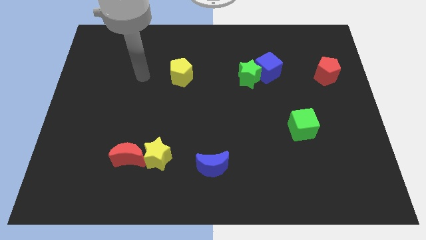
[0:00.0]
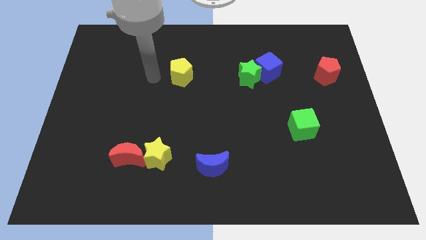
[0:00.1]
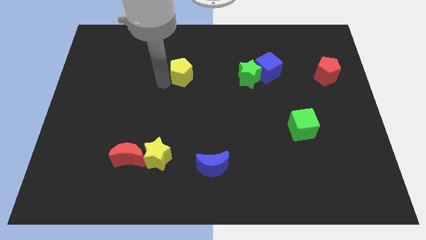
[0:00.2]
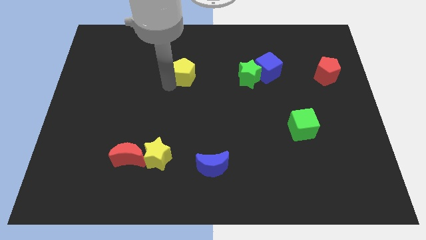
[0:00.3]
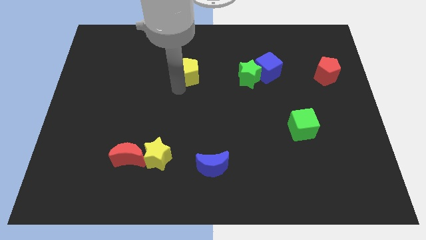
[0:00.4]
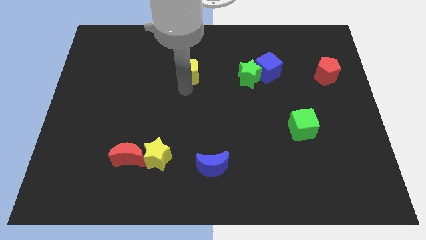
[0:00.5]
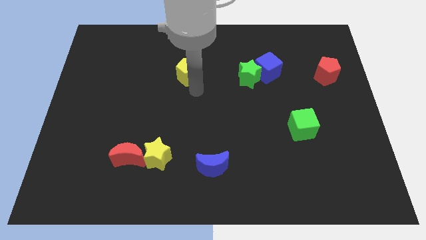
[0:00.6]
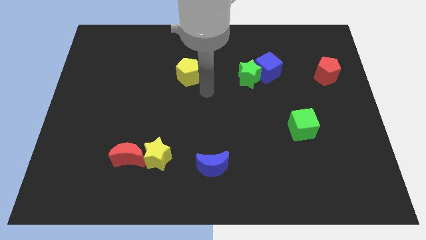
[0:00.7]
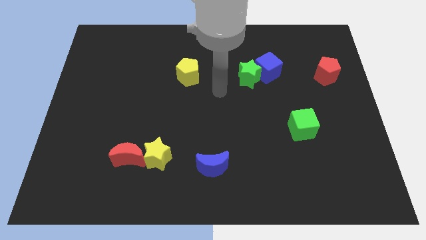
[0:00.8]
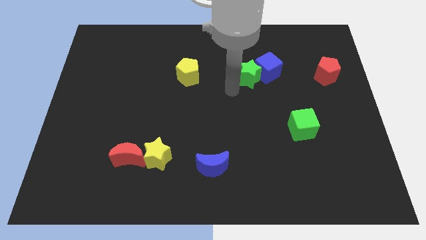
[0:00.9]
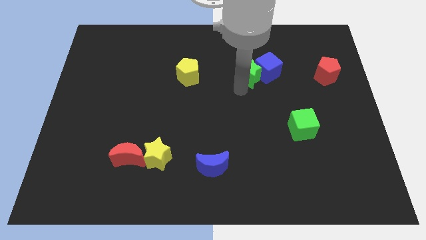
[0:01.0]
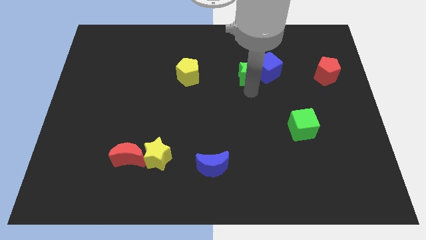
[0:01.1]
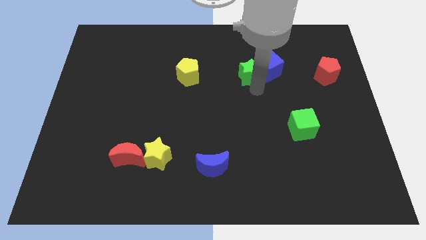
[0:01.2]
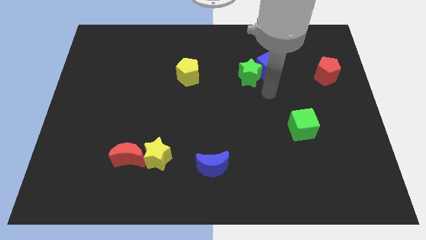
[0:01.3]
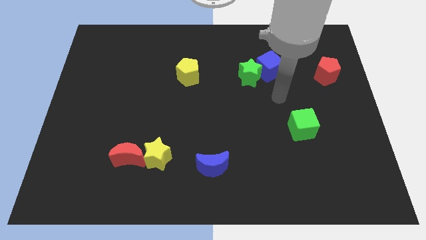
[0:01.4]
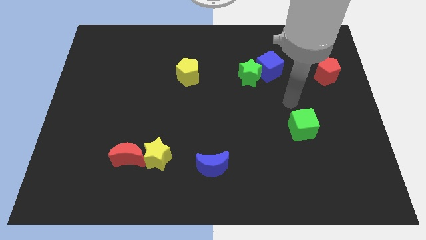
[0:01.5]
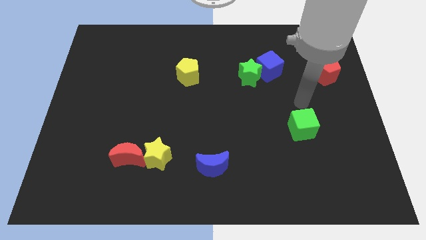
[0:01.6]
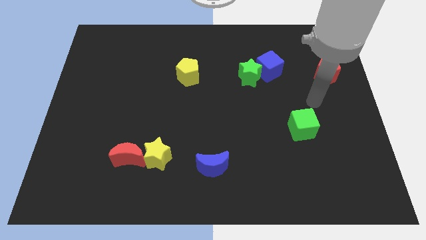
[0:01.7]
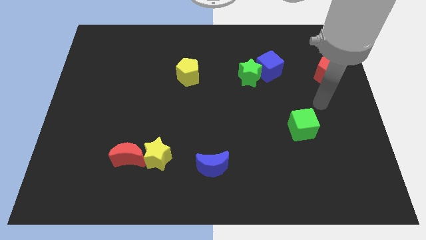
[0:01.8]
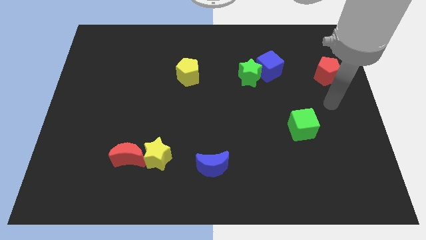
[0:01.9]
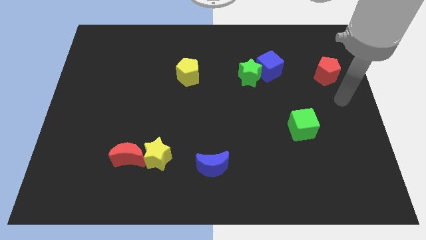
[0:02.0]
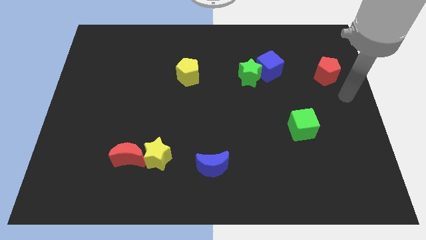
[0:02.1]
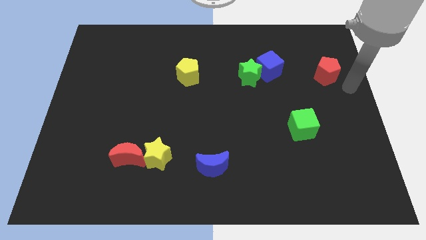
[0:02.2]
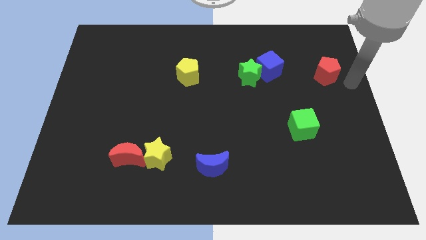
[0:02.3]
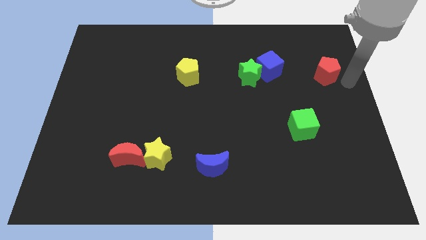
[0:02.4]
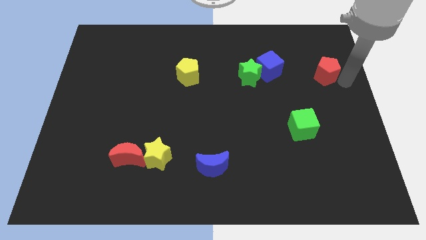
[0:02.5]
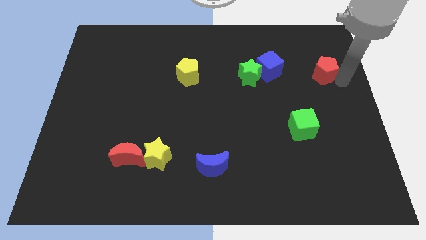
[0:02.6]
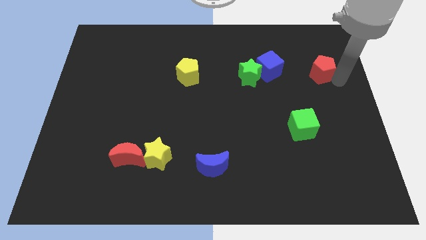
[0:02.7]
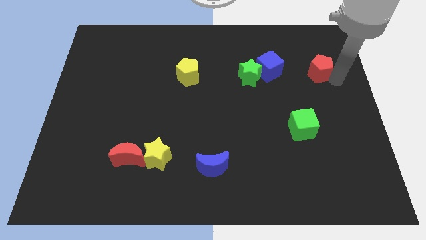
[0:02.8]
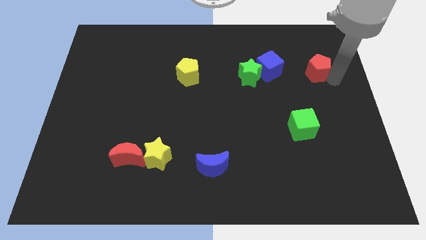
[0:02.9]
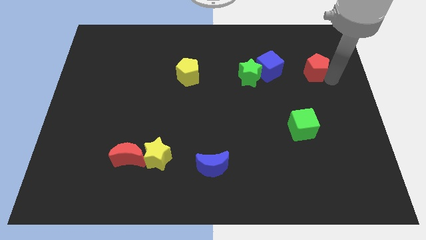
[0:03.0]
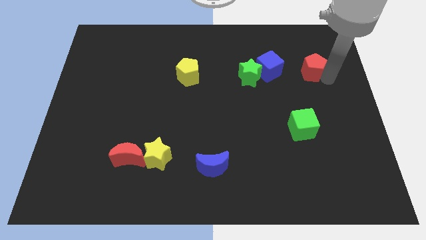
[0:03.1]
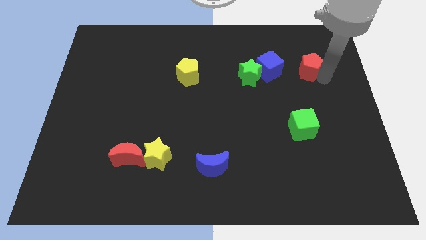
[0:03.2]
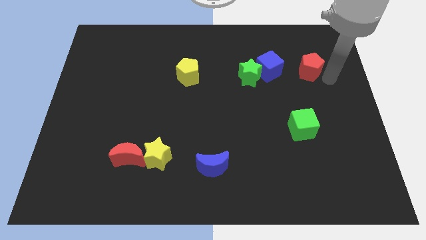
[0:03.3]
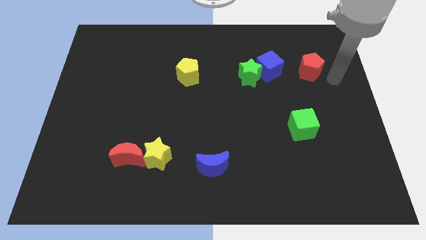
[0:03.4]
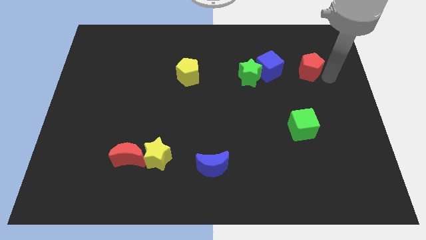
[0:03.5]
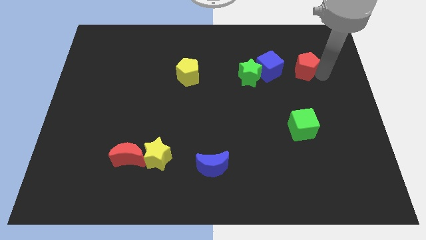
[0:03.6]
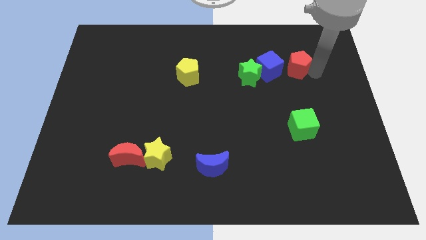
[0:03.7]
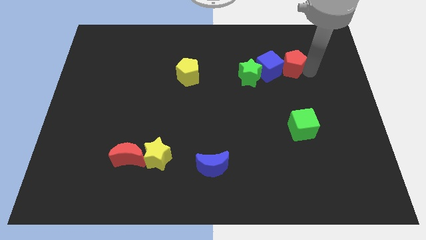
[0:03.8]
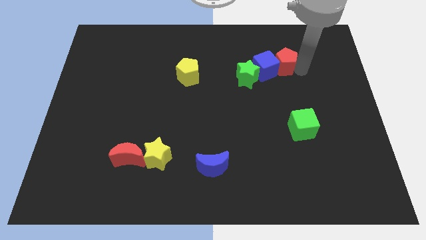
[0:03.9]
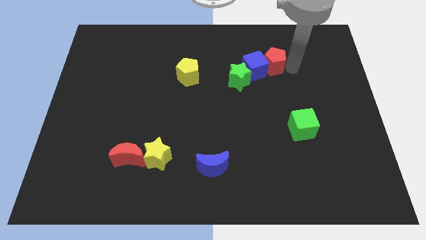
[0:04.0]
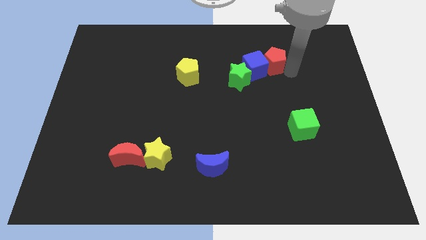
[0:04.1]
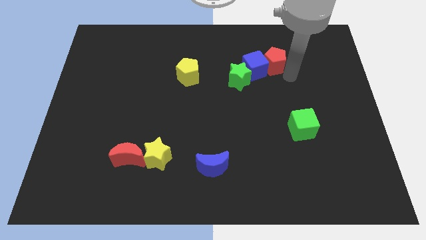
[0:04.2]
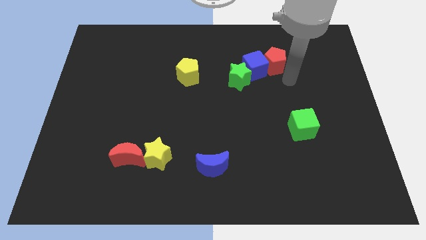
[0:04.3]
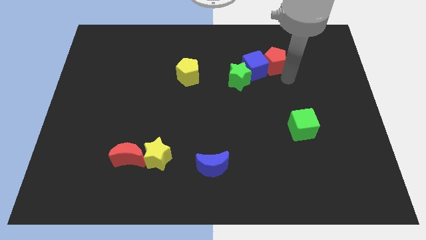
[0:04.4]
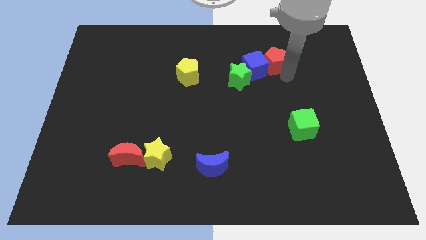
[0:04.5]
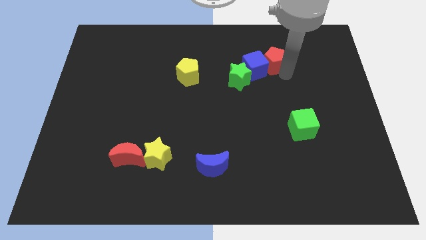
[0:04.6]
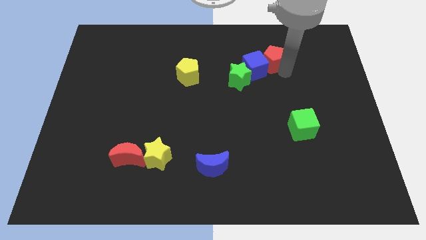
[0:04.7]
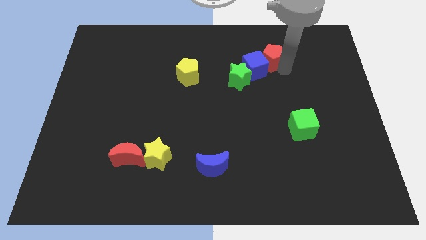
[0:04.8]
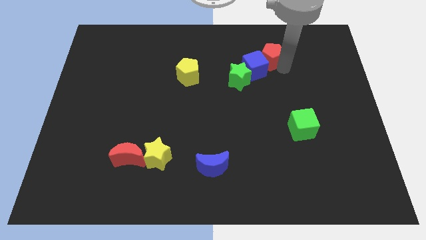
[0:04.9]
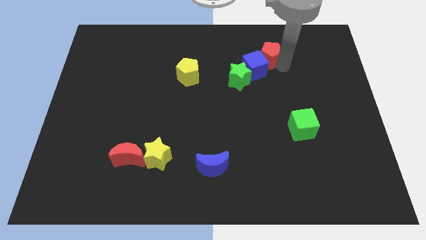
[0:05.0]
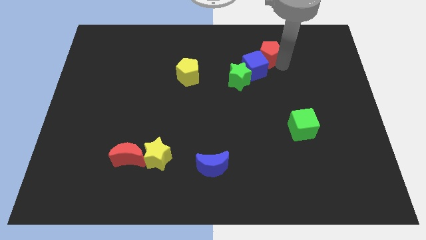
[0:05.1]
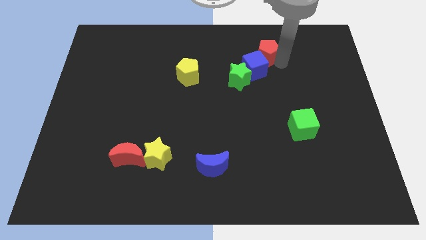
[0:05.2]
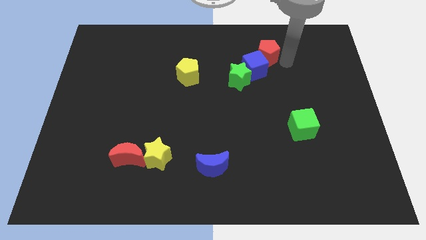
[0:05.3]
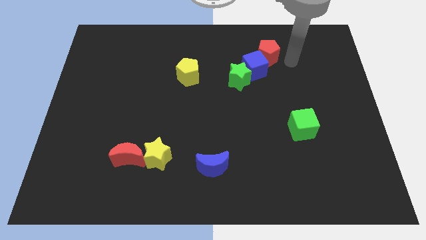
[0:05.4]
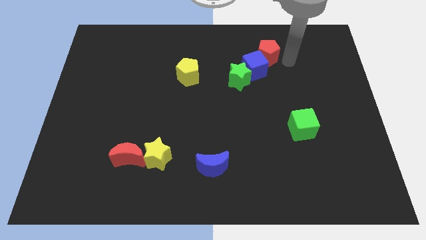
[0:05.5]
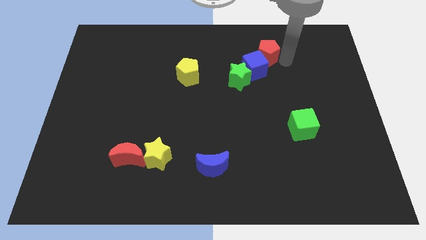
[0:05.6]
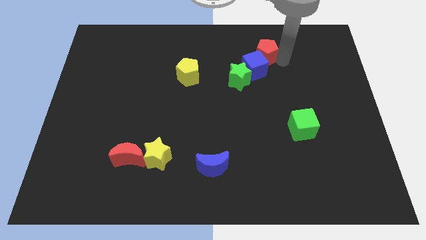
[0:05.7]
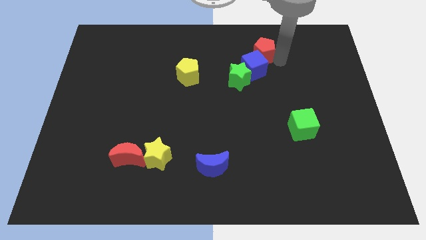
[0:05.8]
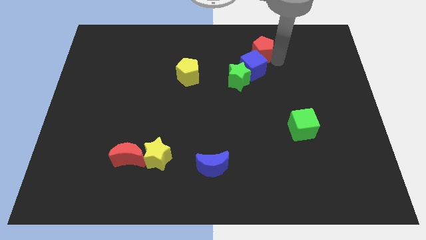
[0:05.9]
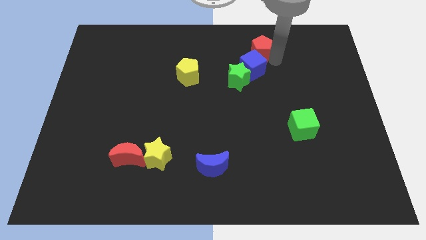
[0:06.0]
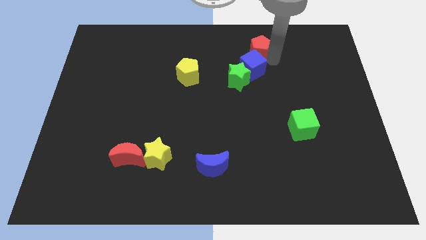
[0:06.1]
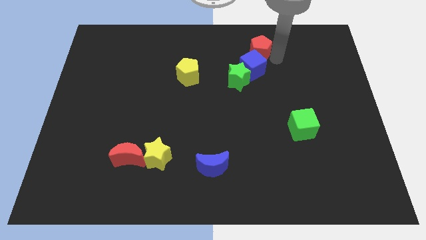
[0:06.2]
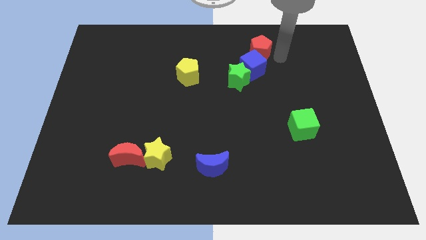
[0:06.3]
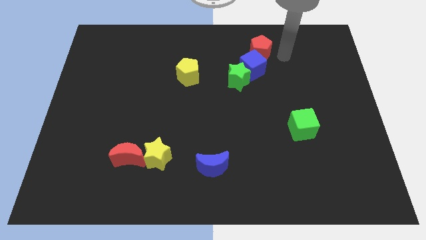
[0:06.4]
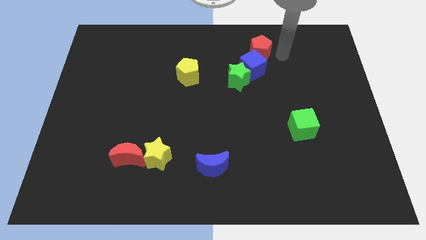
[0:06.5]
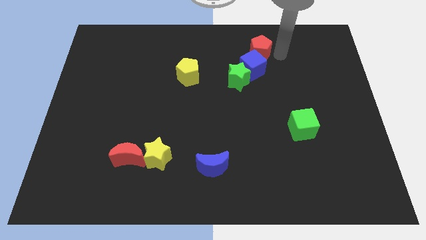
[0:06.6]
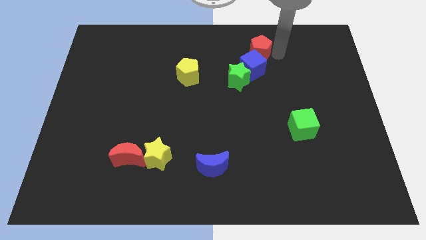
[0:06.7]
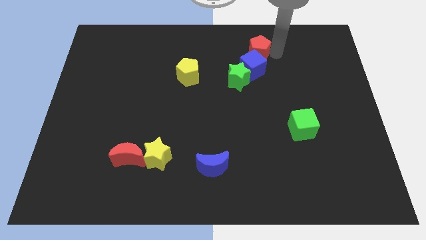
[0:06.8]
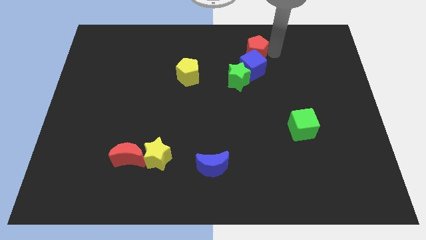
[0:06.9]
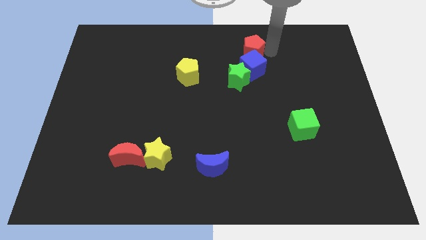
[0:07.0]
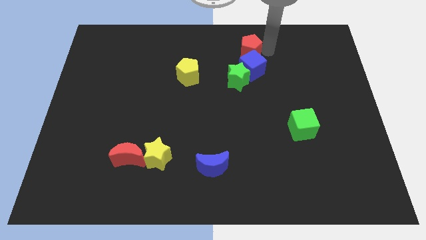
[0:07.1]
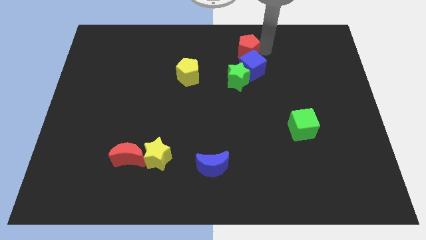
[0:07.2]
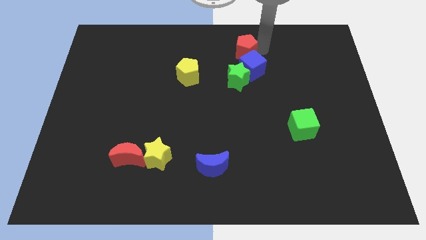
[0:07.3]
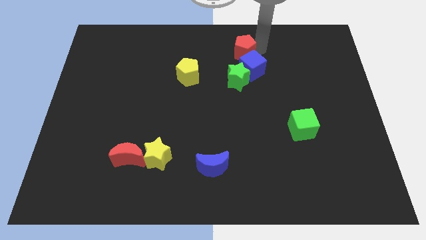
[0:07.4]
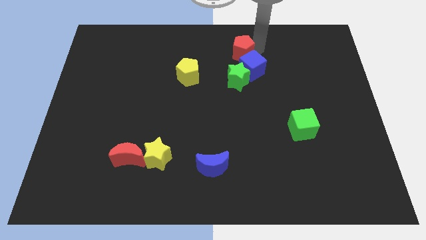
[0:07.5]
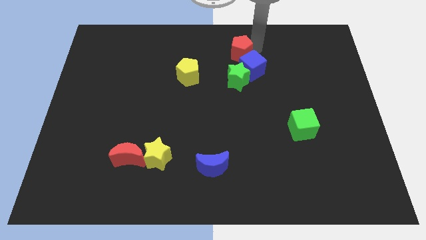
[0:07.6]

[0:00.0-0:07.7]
put the red pentagon to the top side
